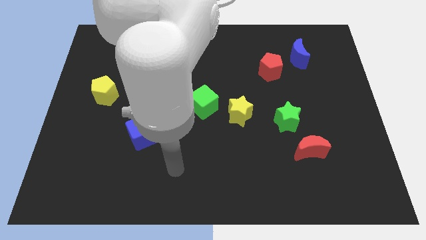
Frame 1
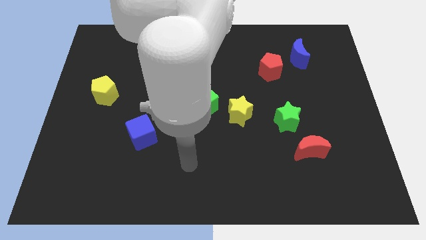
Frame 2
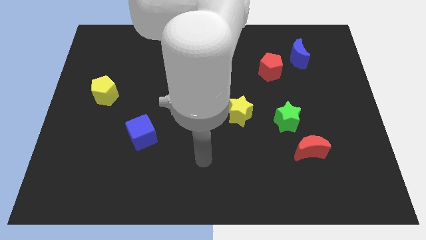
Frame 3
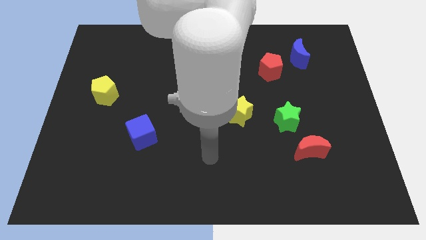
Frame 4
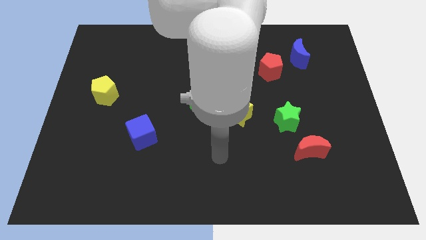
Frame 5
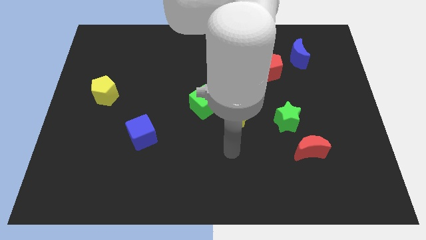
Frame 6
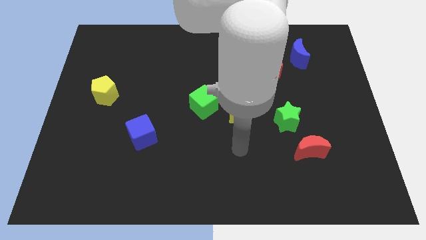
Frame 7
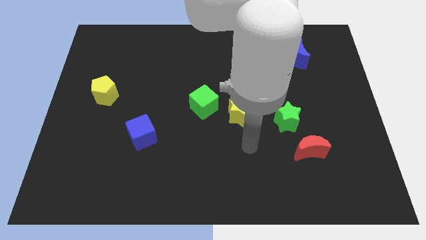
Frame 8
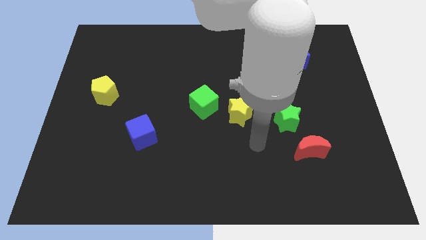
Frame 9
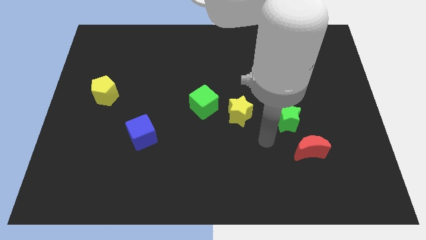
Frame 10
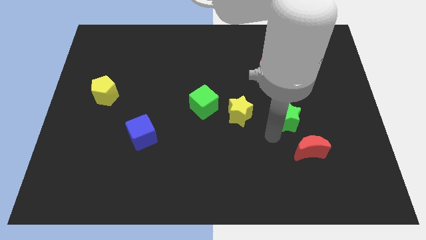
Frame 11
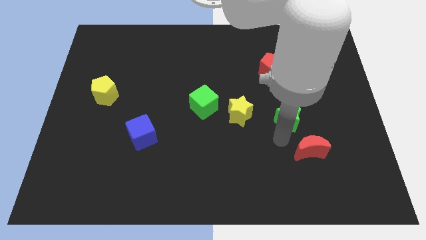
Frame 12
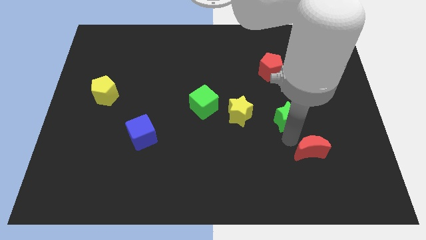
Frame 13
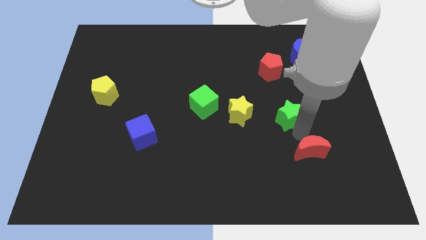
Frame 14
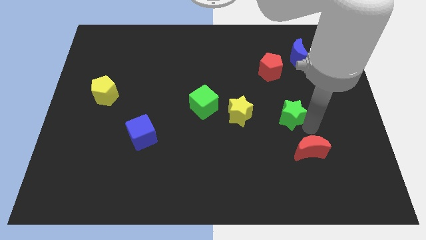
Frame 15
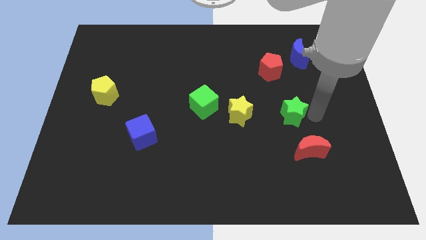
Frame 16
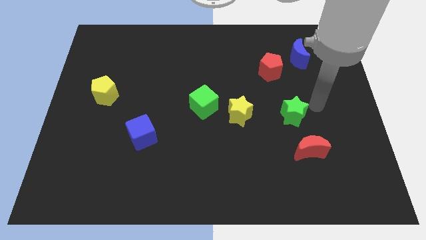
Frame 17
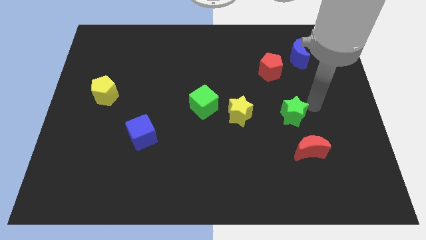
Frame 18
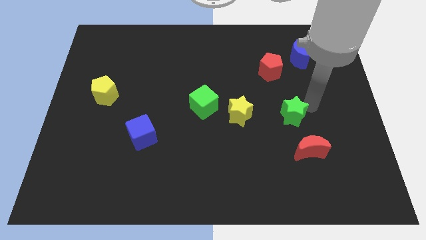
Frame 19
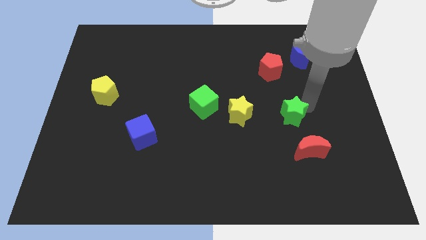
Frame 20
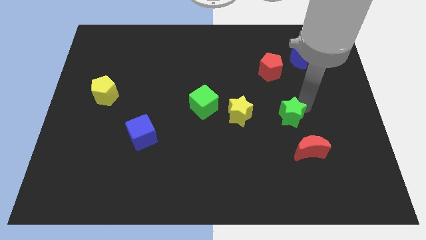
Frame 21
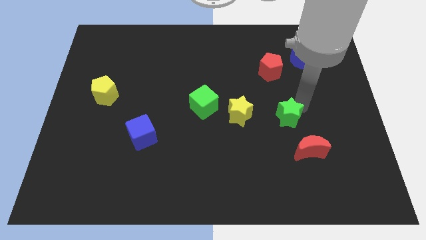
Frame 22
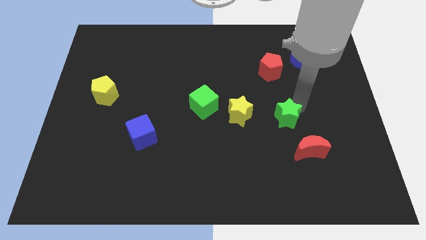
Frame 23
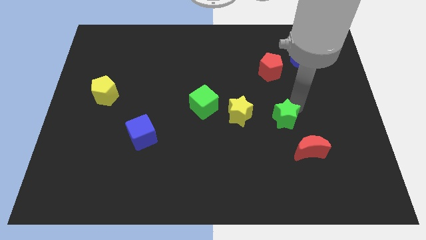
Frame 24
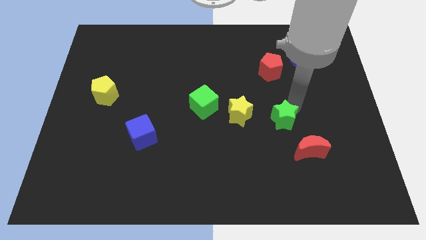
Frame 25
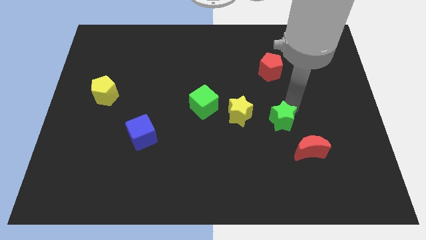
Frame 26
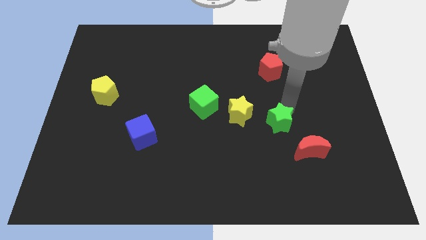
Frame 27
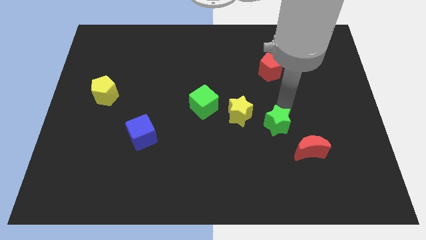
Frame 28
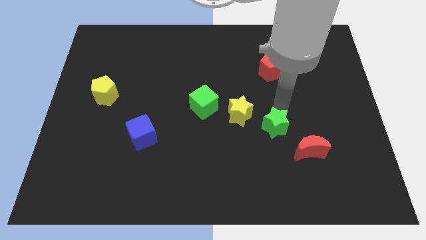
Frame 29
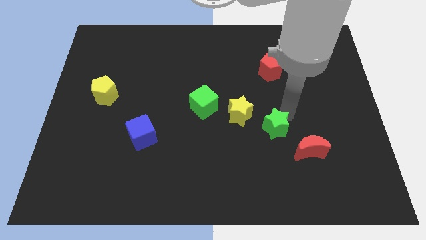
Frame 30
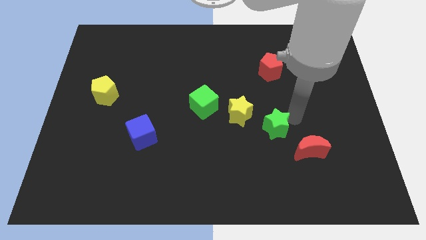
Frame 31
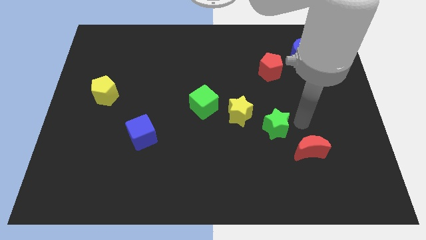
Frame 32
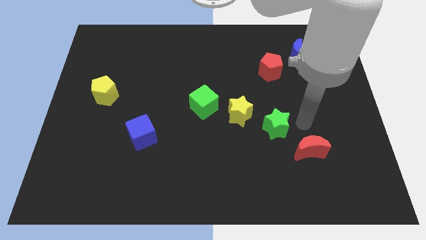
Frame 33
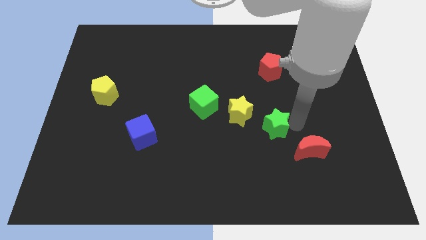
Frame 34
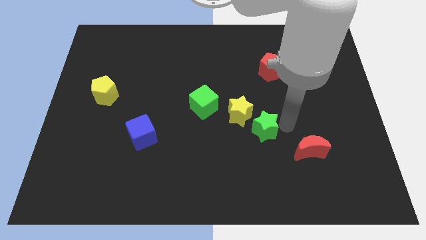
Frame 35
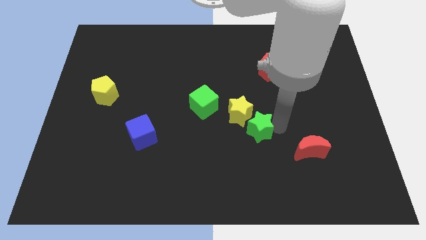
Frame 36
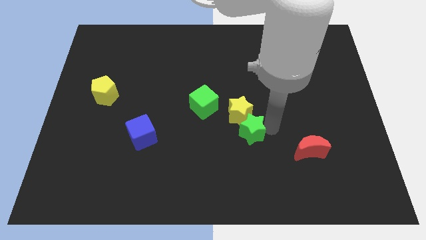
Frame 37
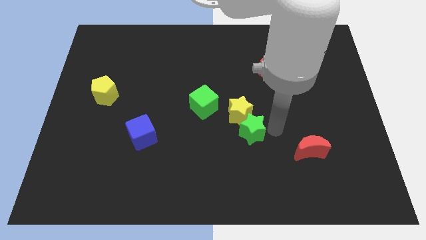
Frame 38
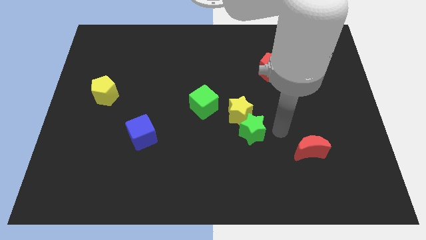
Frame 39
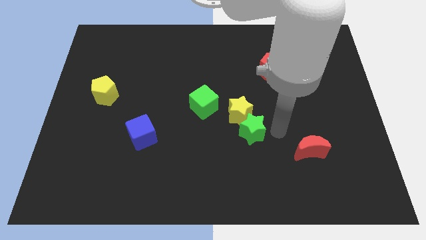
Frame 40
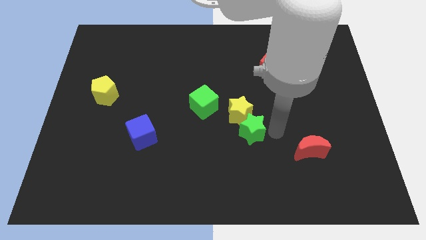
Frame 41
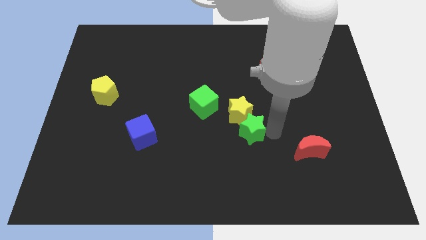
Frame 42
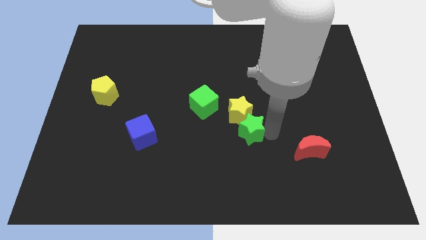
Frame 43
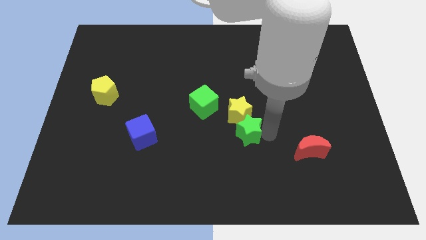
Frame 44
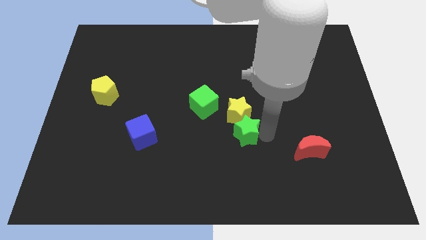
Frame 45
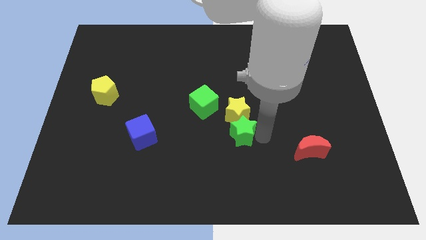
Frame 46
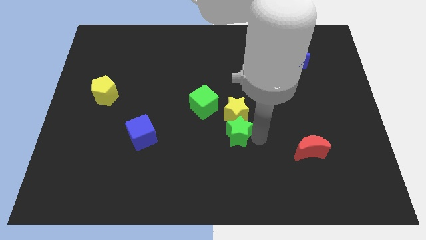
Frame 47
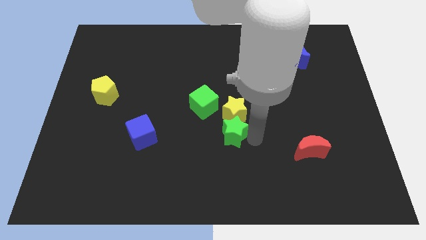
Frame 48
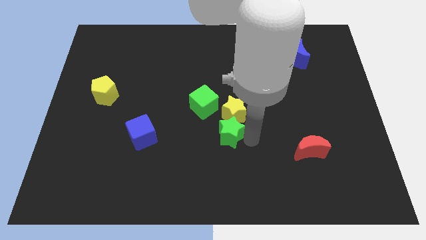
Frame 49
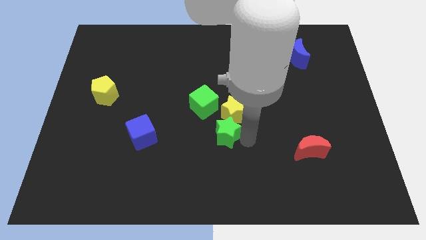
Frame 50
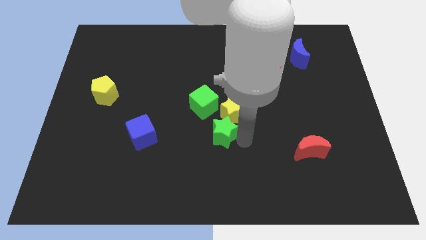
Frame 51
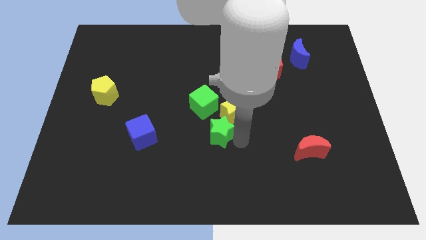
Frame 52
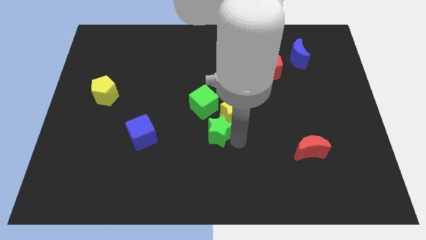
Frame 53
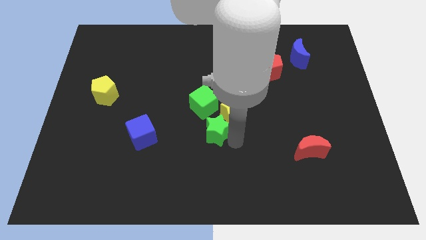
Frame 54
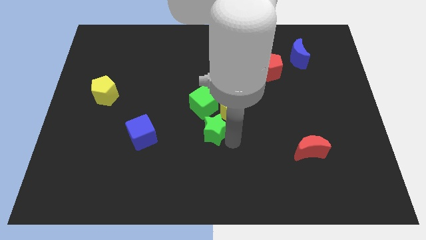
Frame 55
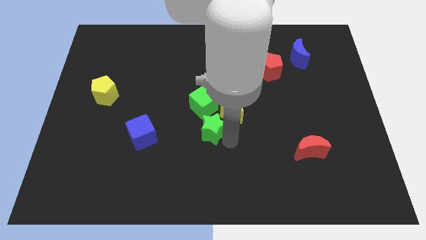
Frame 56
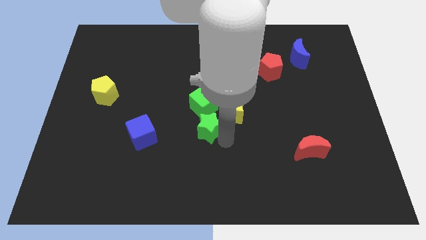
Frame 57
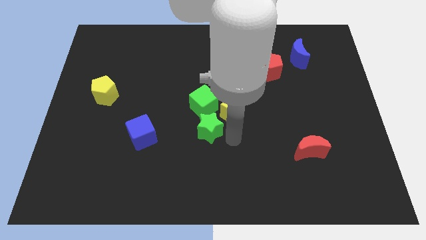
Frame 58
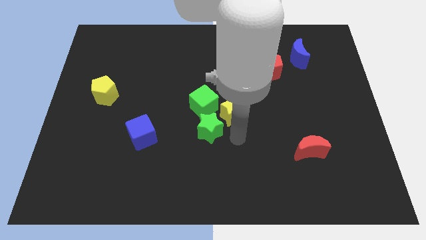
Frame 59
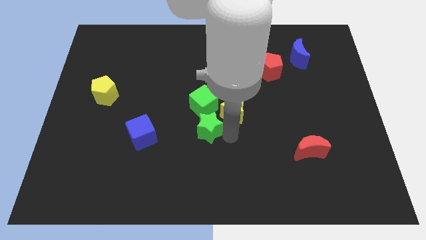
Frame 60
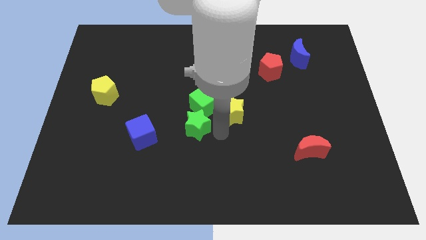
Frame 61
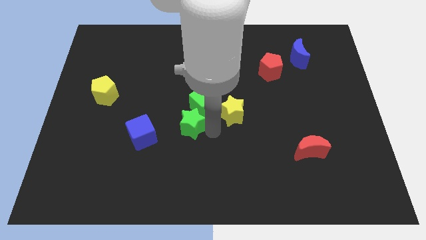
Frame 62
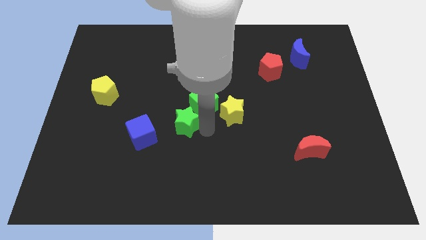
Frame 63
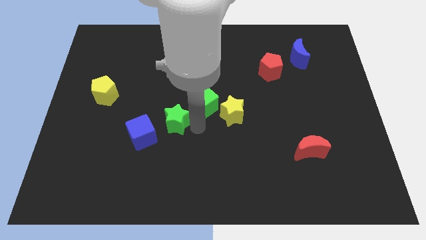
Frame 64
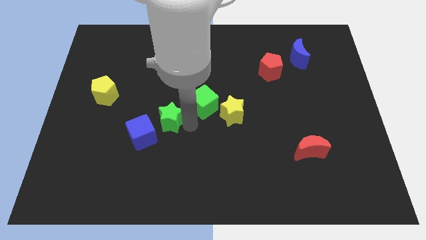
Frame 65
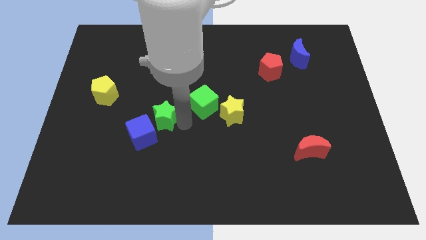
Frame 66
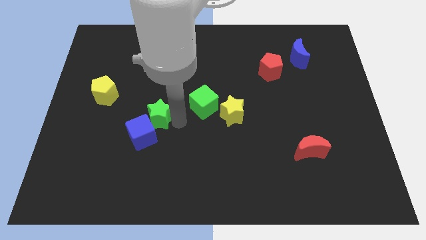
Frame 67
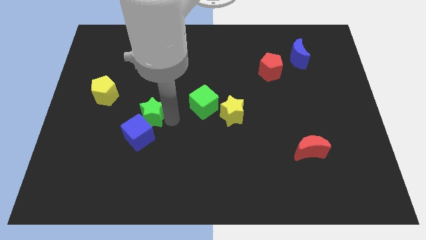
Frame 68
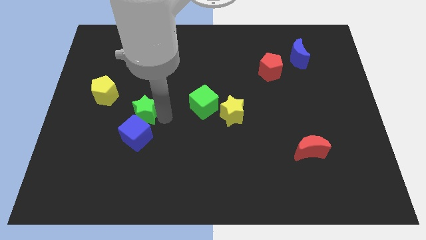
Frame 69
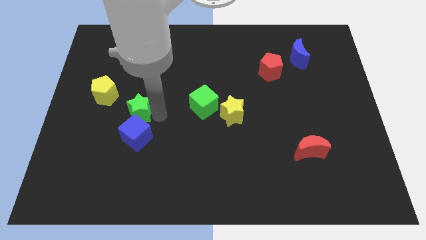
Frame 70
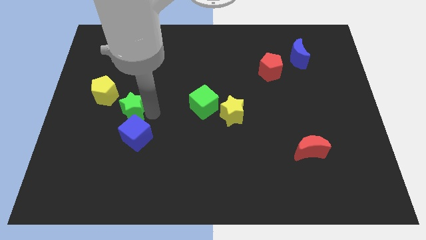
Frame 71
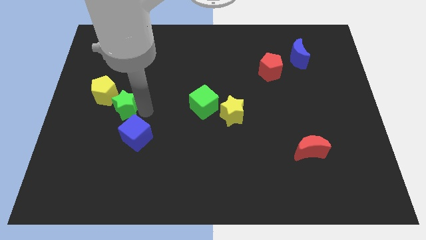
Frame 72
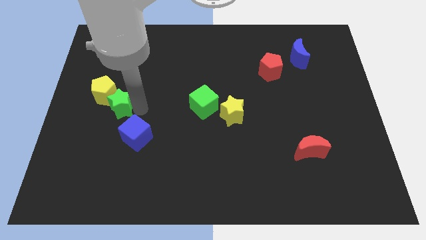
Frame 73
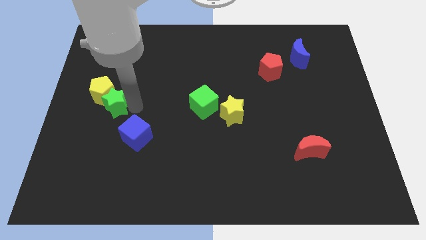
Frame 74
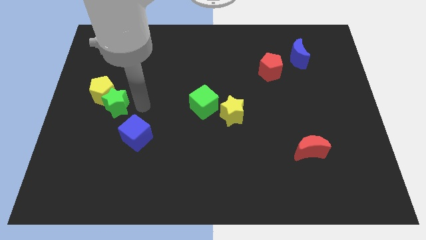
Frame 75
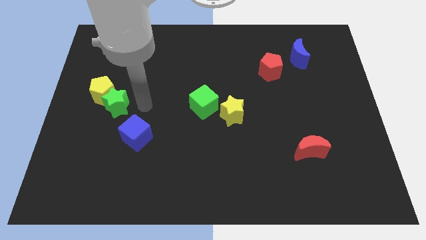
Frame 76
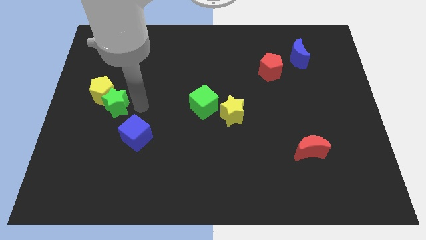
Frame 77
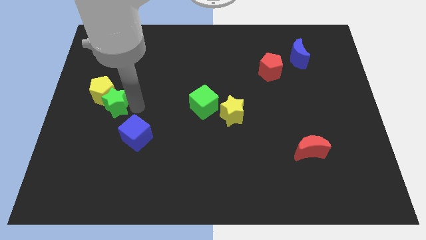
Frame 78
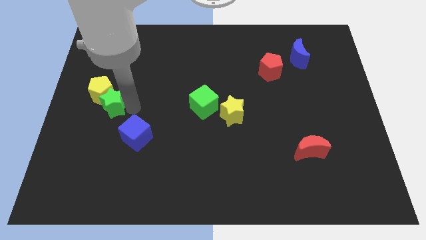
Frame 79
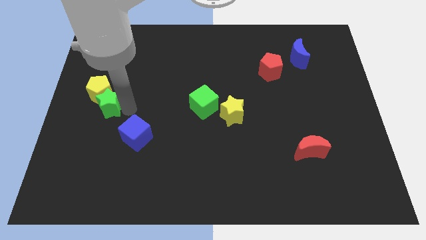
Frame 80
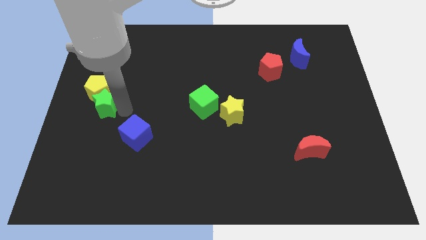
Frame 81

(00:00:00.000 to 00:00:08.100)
push the green star to the left side
